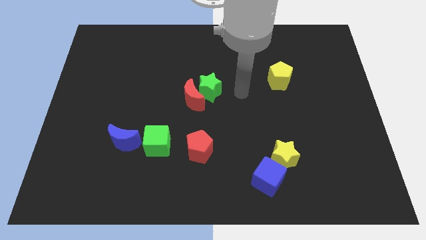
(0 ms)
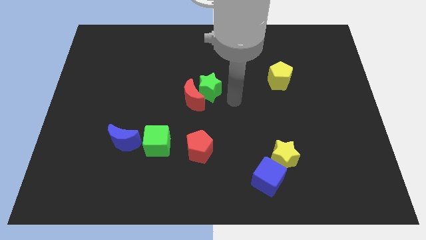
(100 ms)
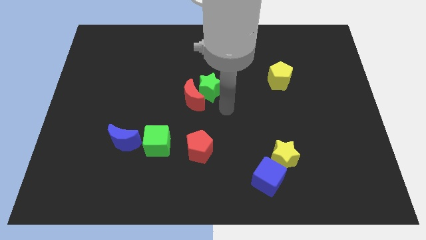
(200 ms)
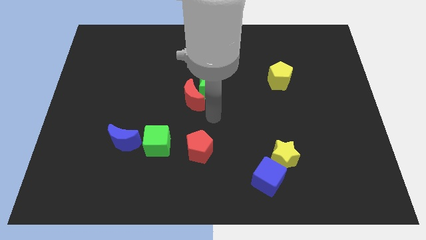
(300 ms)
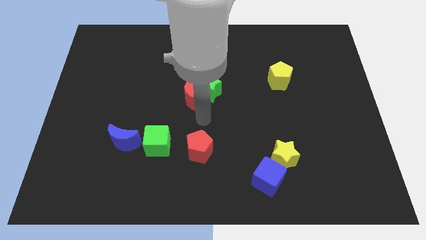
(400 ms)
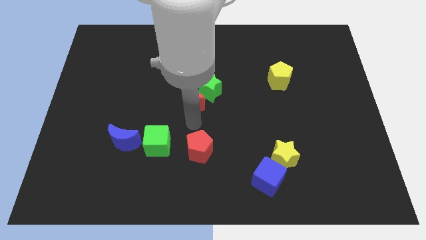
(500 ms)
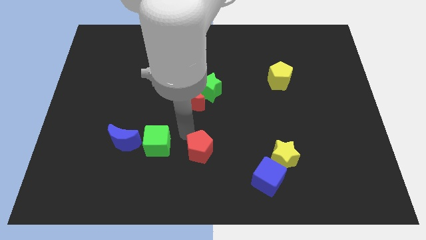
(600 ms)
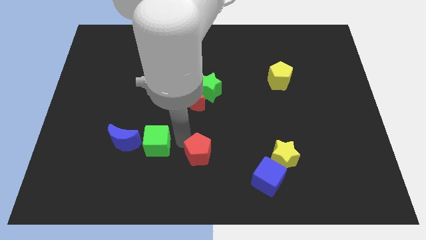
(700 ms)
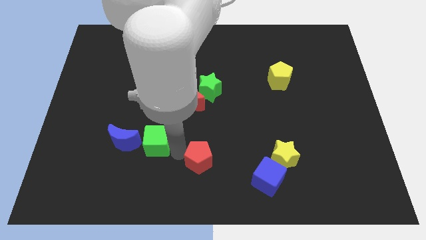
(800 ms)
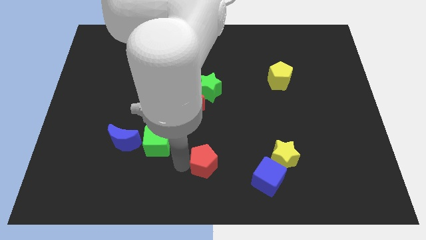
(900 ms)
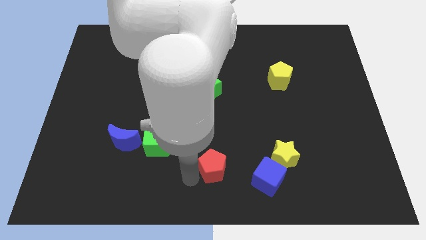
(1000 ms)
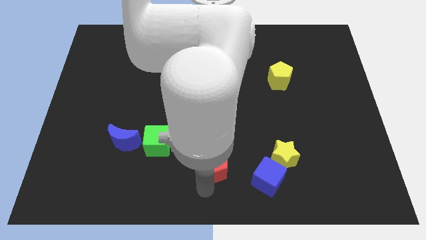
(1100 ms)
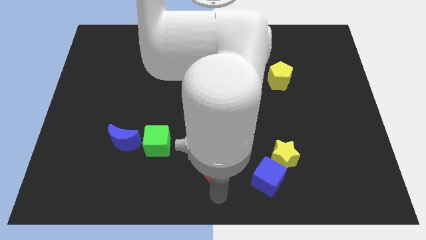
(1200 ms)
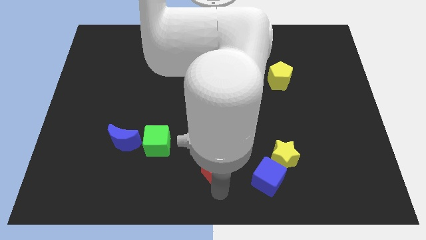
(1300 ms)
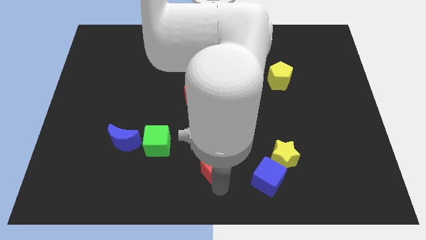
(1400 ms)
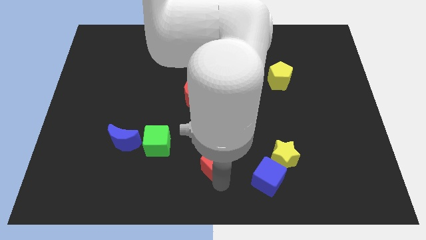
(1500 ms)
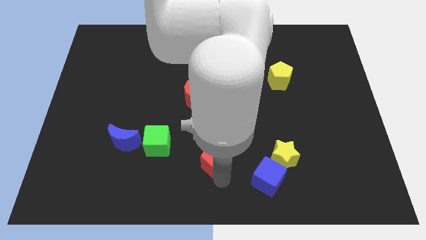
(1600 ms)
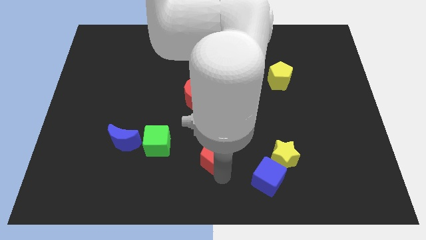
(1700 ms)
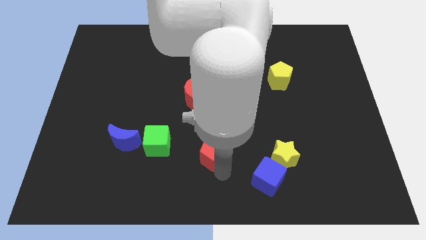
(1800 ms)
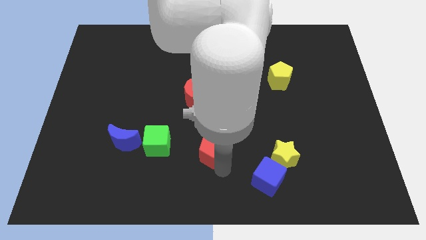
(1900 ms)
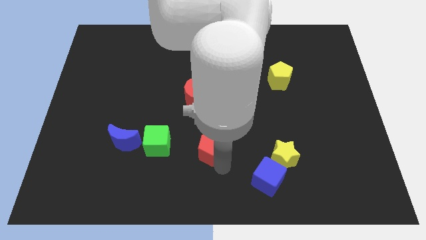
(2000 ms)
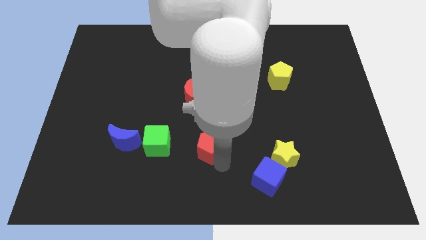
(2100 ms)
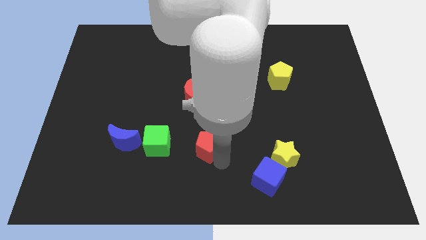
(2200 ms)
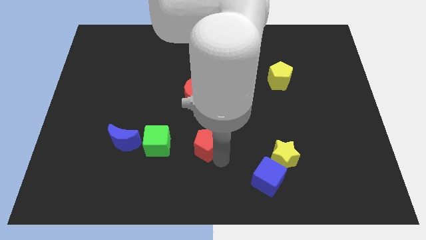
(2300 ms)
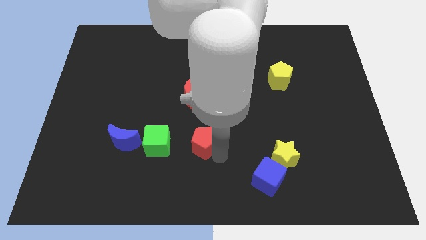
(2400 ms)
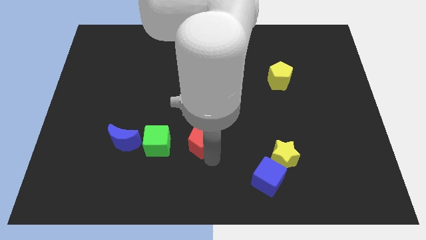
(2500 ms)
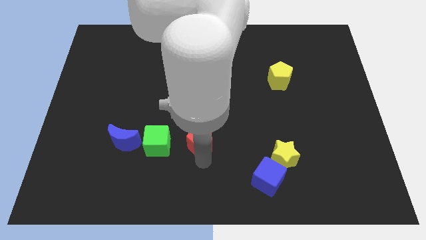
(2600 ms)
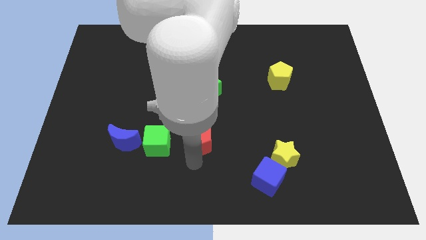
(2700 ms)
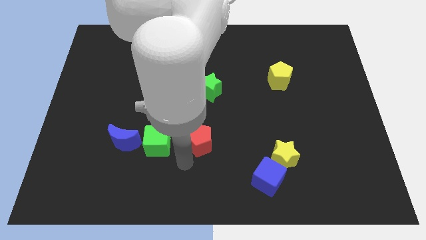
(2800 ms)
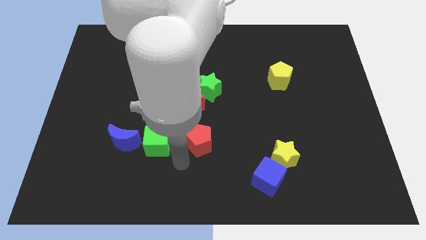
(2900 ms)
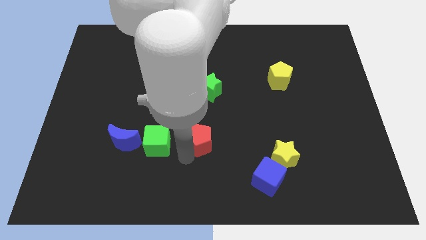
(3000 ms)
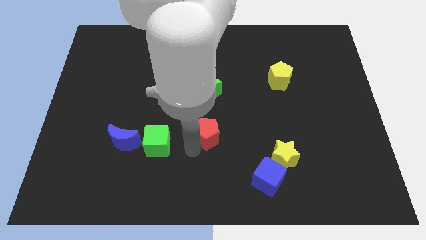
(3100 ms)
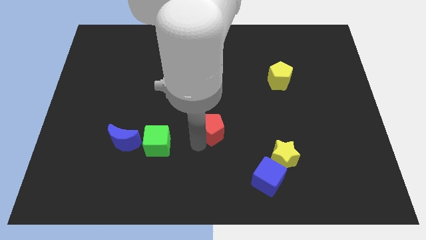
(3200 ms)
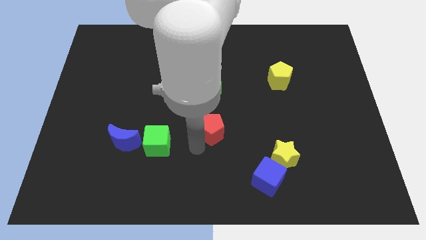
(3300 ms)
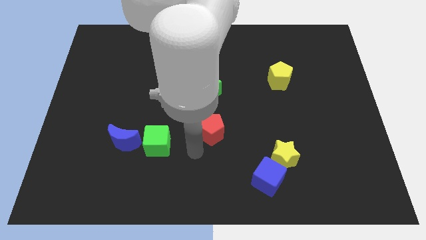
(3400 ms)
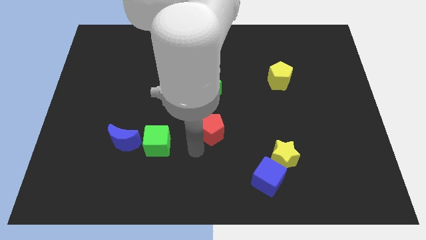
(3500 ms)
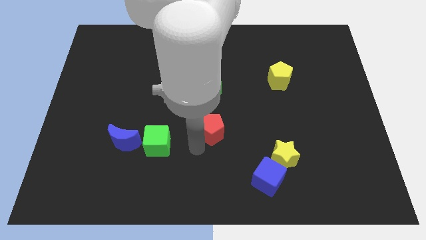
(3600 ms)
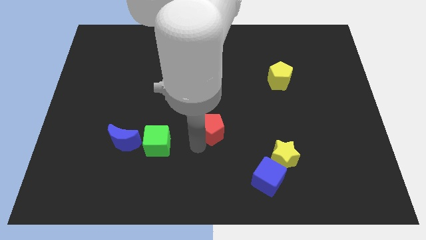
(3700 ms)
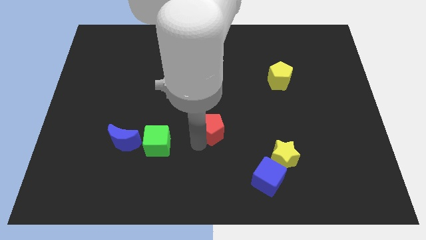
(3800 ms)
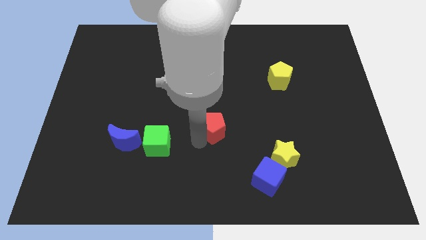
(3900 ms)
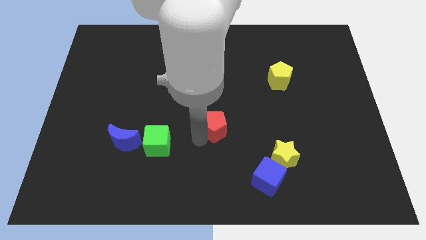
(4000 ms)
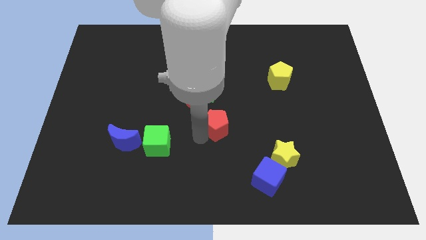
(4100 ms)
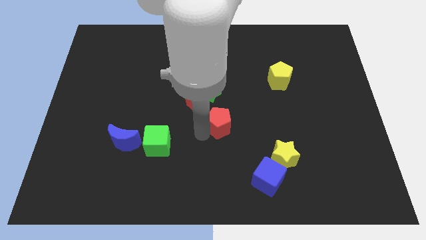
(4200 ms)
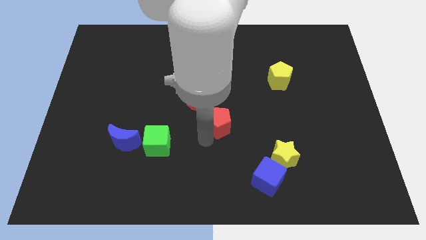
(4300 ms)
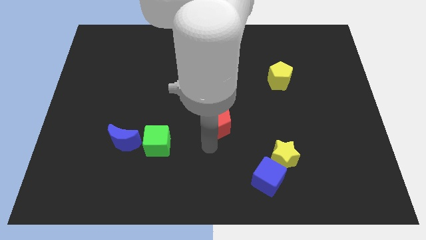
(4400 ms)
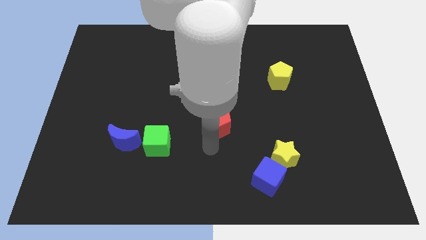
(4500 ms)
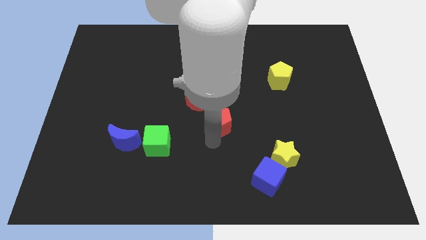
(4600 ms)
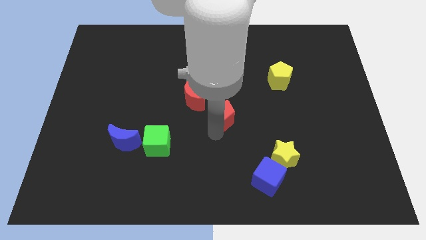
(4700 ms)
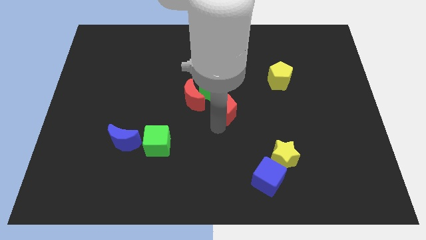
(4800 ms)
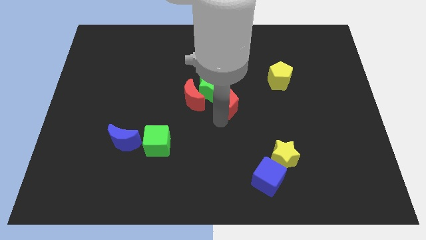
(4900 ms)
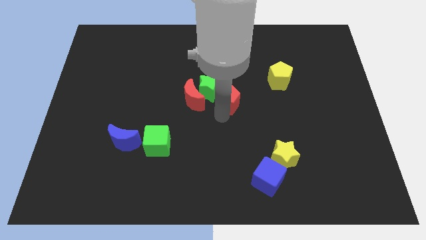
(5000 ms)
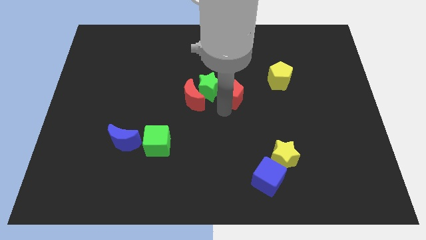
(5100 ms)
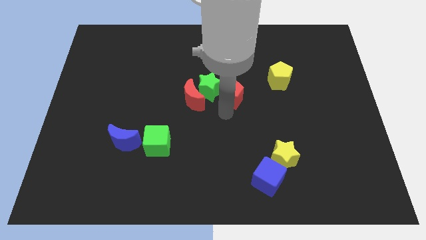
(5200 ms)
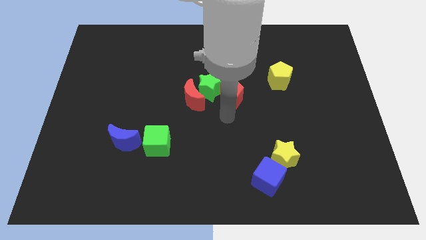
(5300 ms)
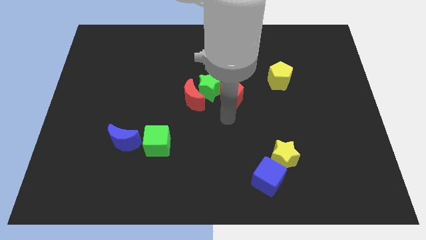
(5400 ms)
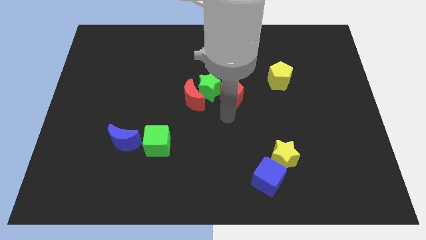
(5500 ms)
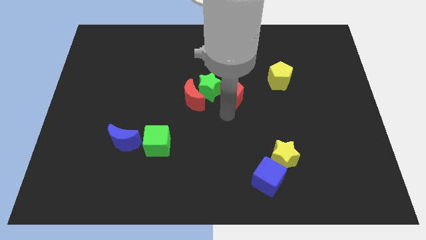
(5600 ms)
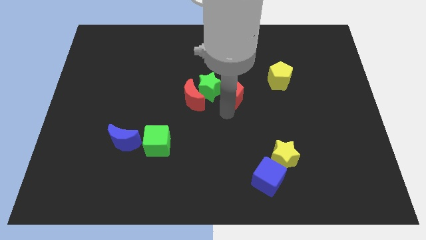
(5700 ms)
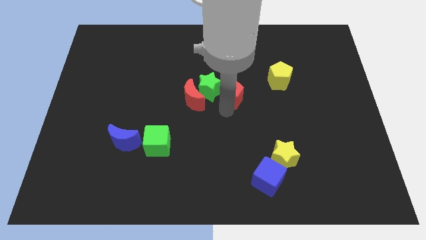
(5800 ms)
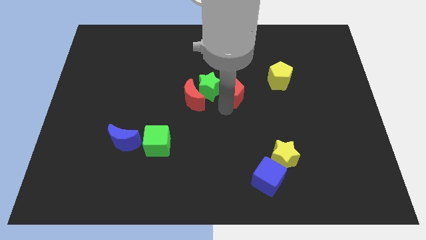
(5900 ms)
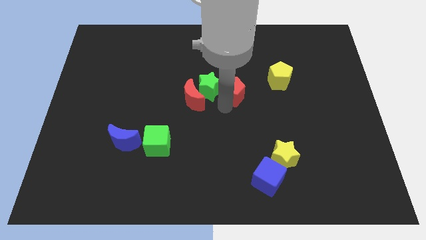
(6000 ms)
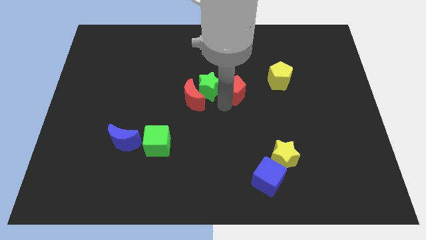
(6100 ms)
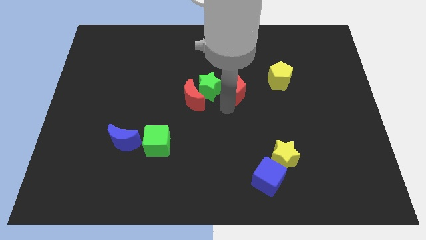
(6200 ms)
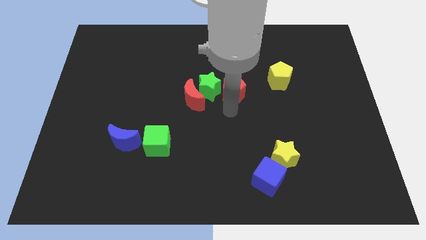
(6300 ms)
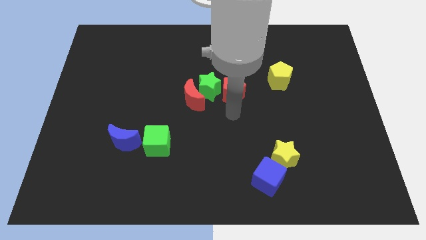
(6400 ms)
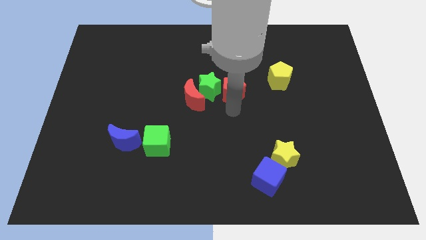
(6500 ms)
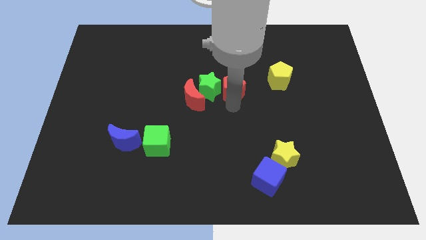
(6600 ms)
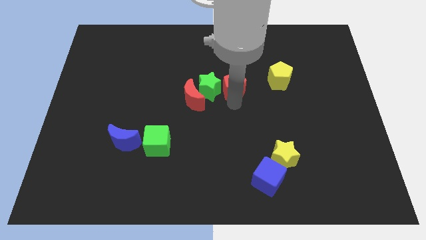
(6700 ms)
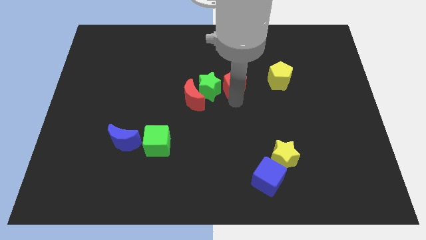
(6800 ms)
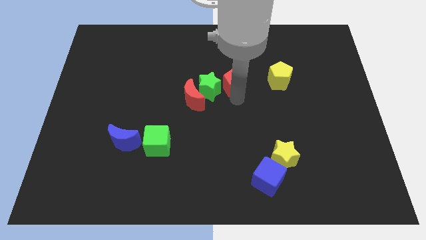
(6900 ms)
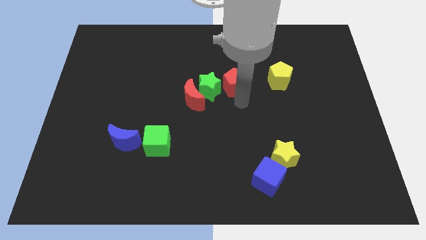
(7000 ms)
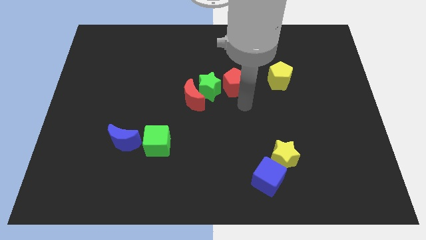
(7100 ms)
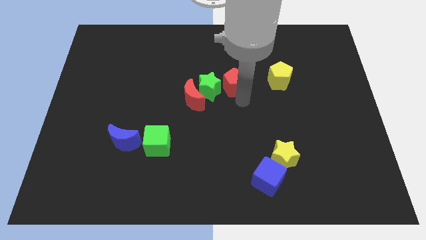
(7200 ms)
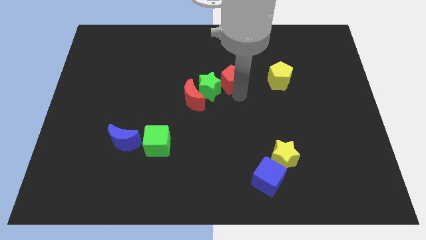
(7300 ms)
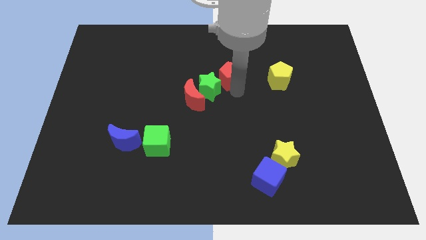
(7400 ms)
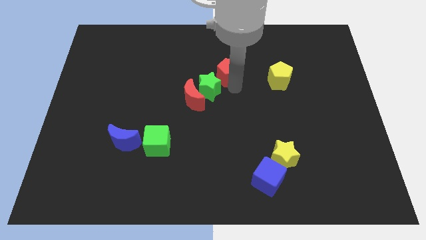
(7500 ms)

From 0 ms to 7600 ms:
move the red pentagon above the green star
